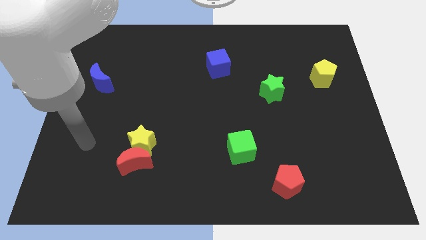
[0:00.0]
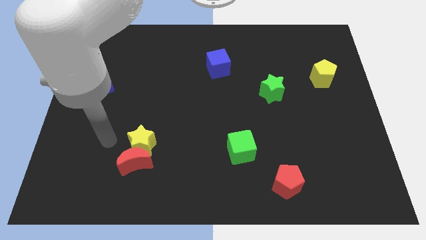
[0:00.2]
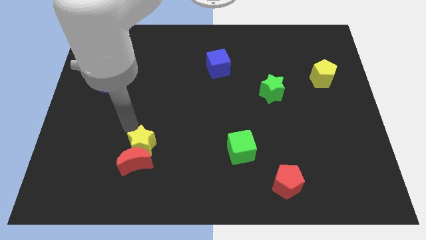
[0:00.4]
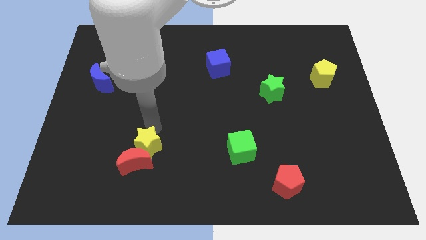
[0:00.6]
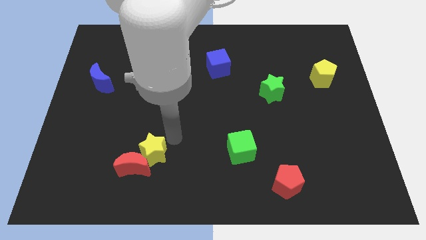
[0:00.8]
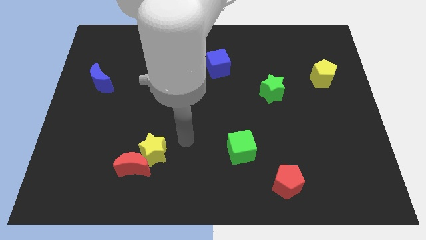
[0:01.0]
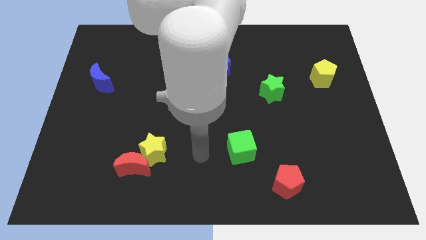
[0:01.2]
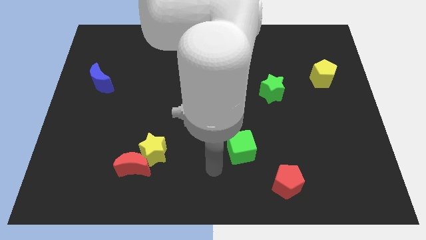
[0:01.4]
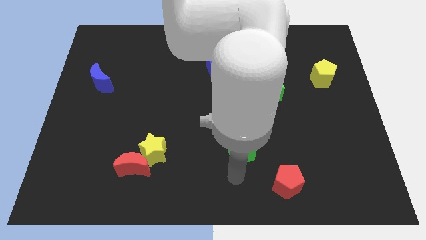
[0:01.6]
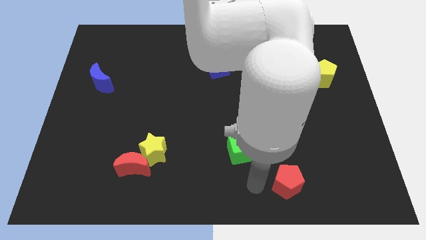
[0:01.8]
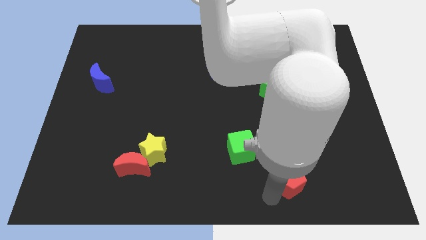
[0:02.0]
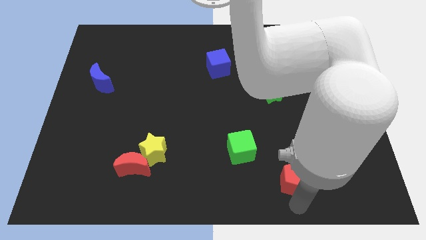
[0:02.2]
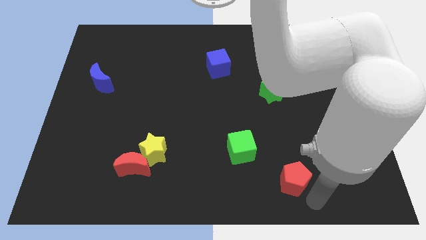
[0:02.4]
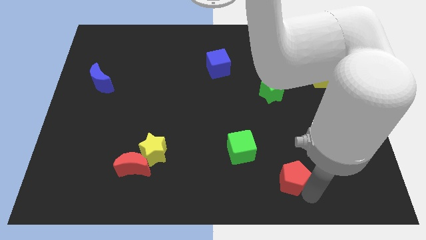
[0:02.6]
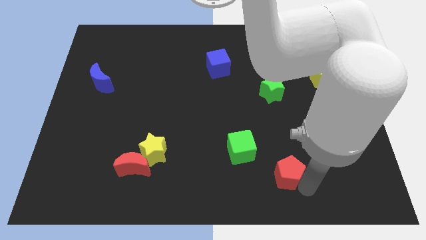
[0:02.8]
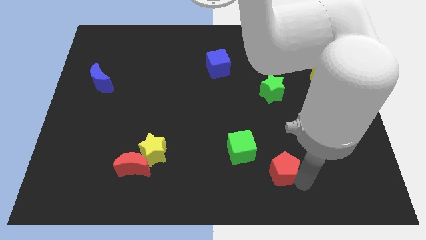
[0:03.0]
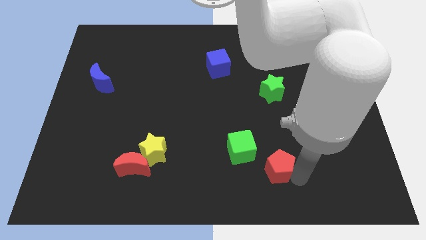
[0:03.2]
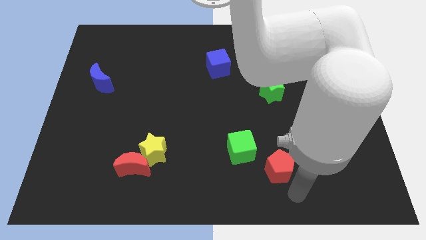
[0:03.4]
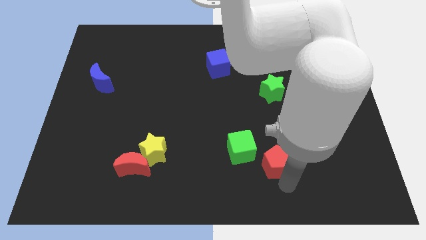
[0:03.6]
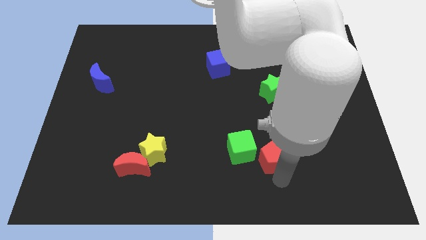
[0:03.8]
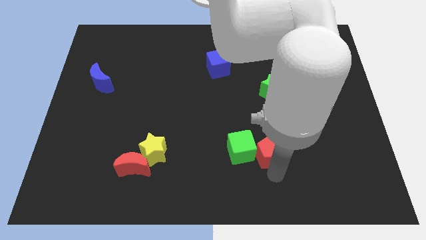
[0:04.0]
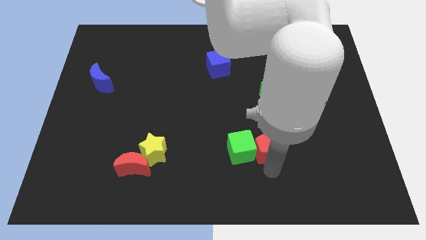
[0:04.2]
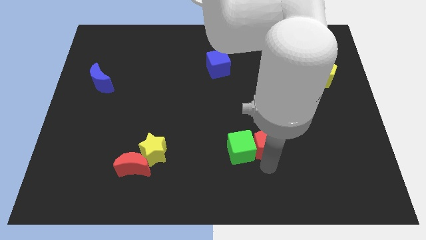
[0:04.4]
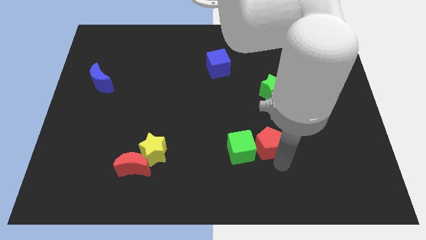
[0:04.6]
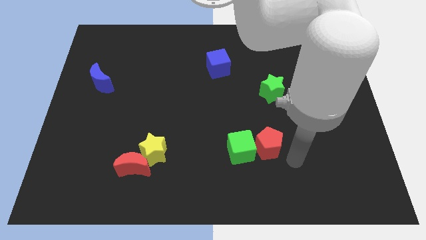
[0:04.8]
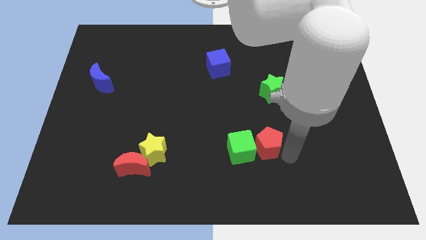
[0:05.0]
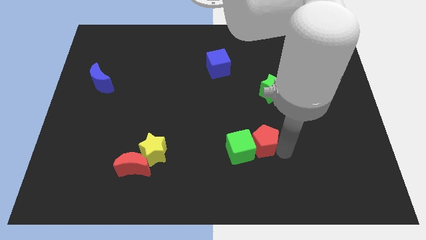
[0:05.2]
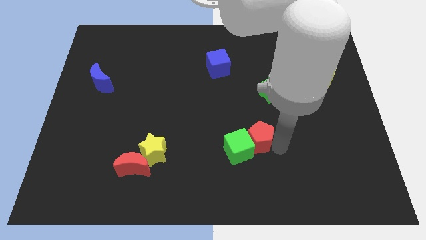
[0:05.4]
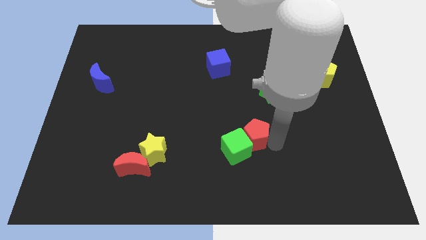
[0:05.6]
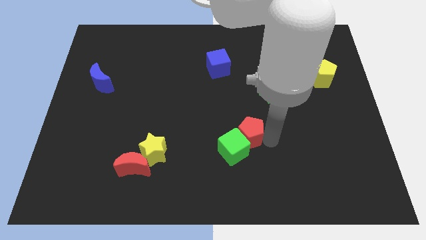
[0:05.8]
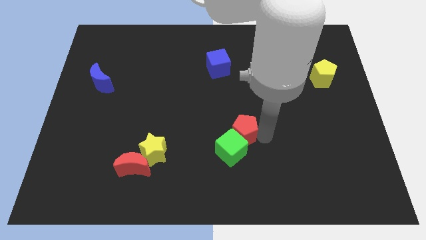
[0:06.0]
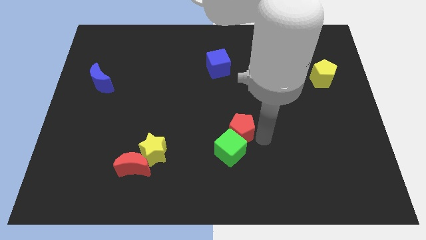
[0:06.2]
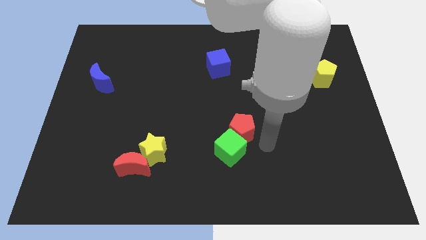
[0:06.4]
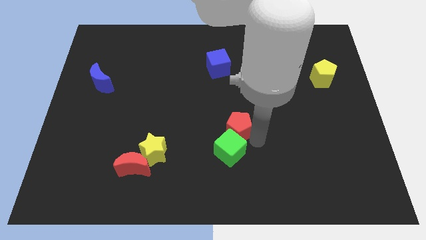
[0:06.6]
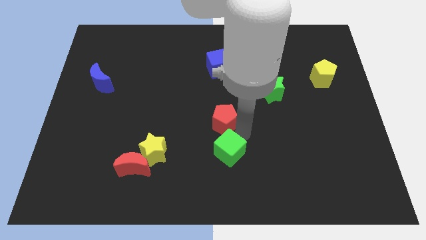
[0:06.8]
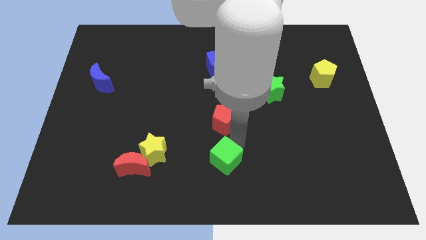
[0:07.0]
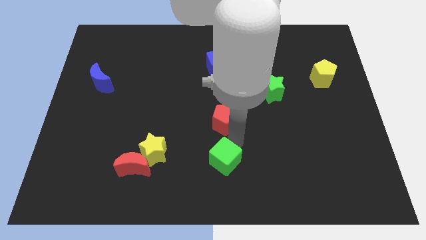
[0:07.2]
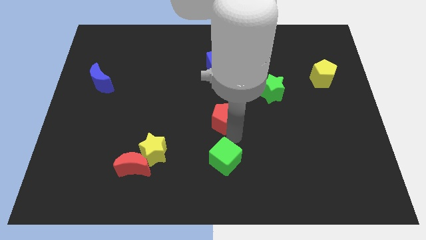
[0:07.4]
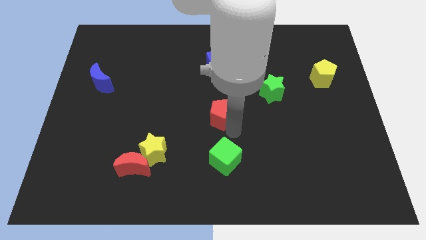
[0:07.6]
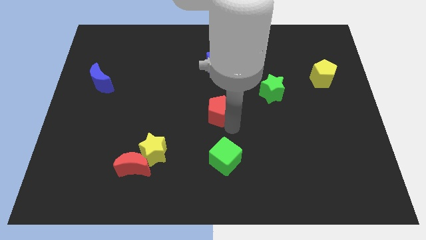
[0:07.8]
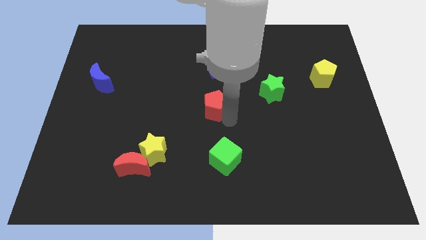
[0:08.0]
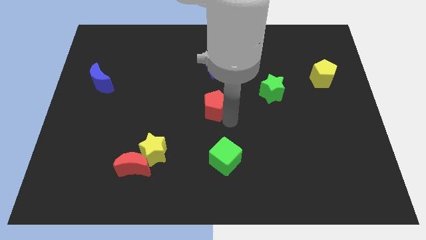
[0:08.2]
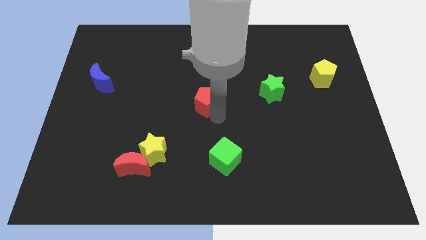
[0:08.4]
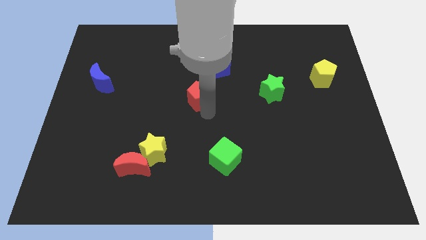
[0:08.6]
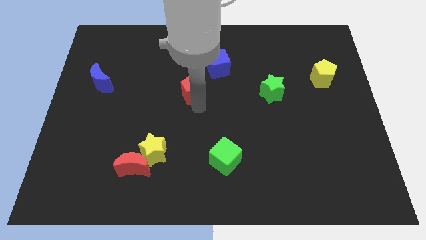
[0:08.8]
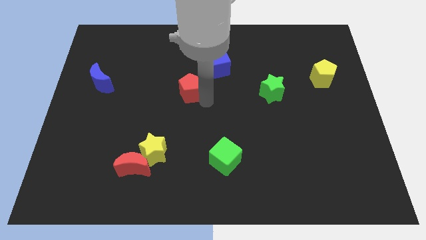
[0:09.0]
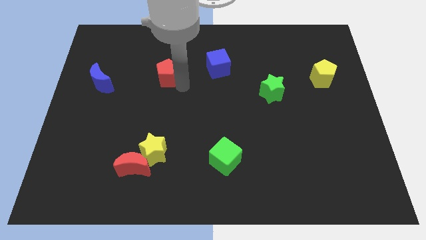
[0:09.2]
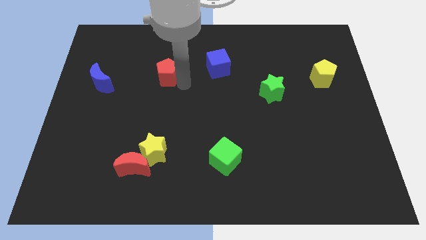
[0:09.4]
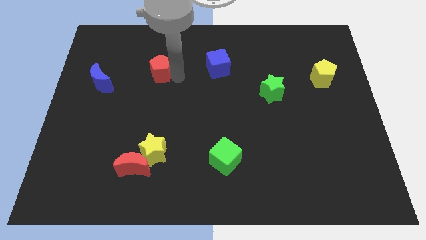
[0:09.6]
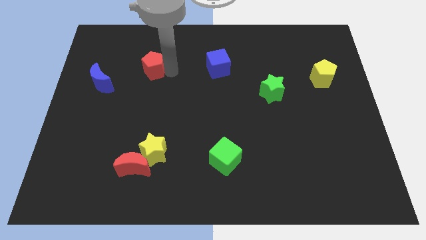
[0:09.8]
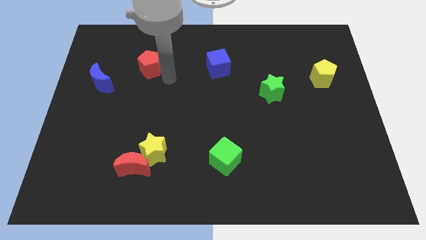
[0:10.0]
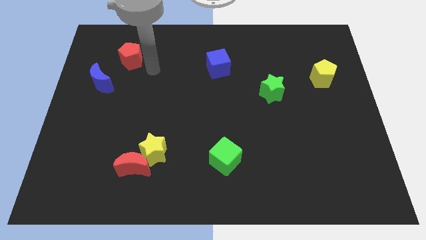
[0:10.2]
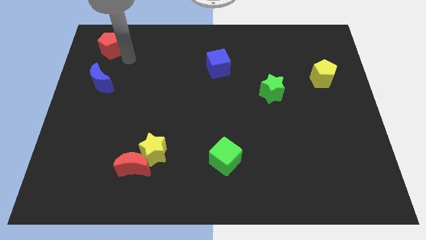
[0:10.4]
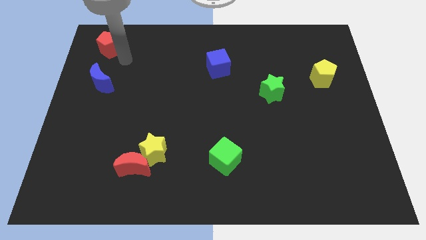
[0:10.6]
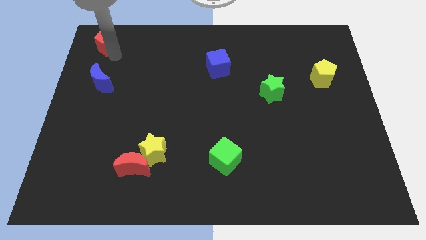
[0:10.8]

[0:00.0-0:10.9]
push the red pentagon to the top left
